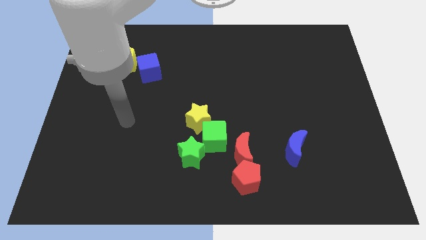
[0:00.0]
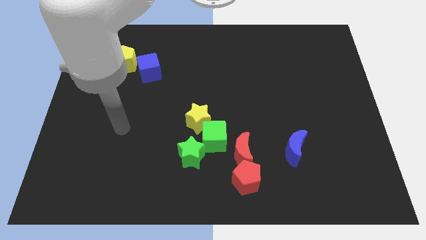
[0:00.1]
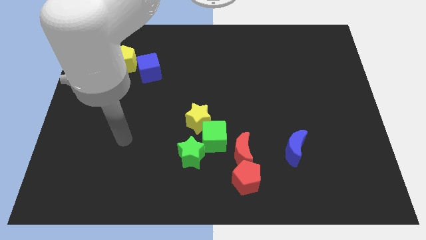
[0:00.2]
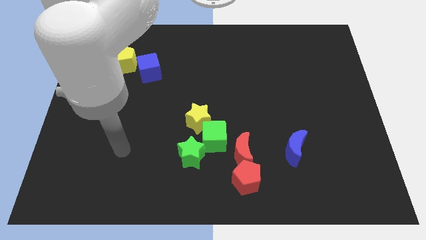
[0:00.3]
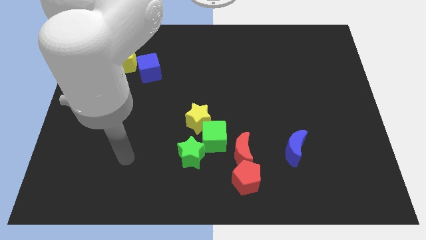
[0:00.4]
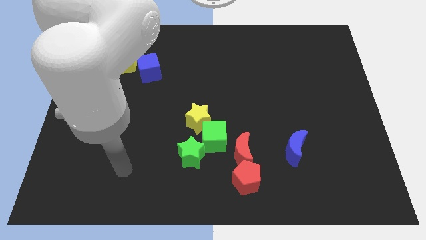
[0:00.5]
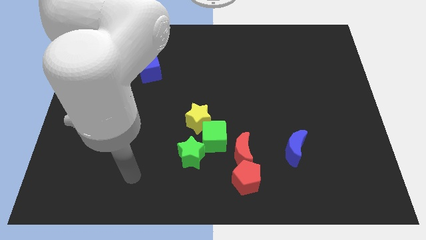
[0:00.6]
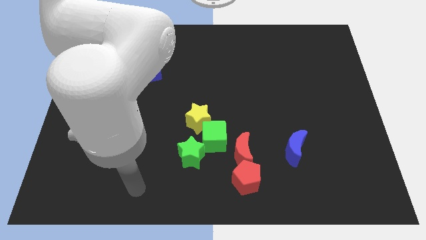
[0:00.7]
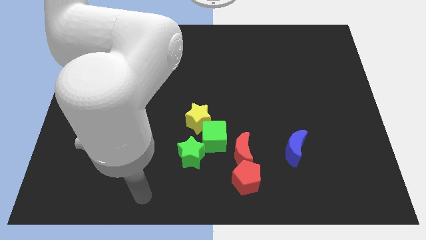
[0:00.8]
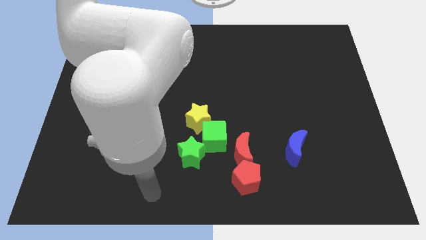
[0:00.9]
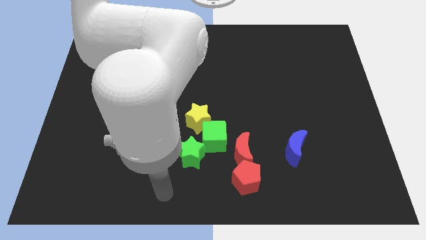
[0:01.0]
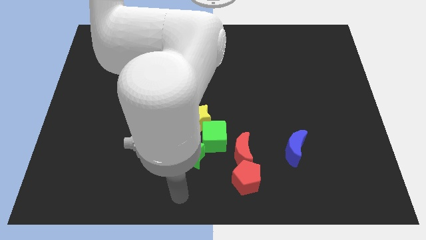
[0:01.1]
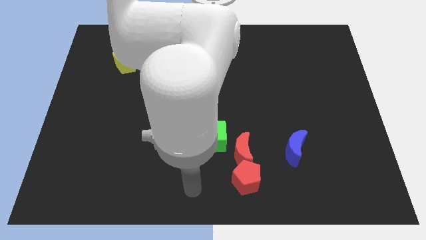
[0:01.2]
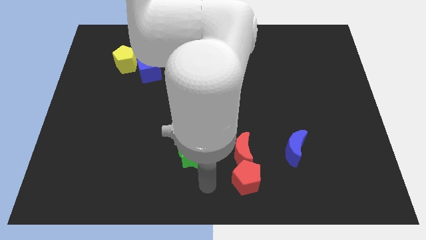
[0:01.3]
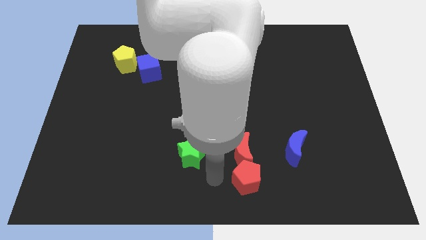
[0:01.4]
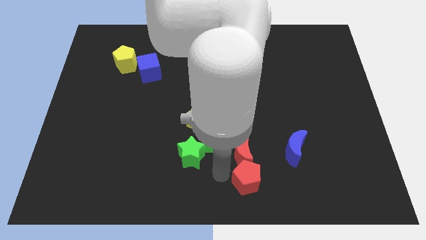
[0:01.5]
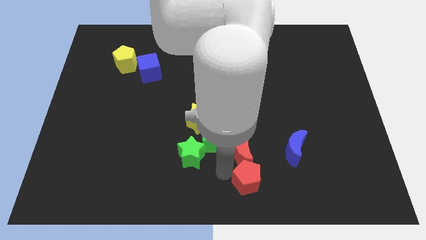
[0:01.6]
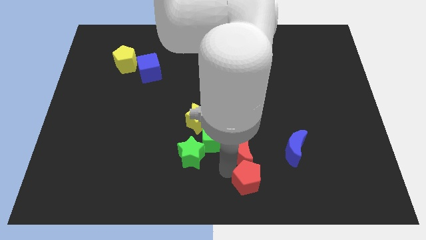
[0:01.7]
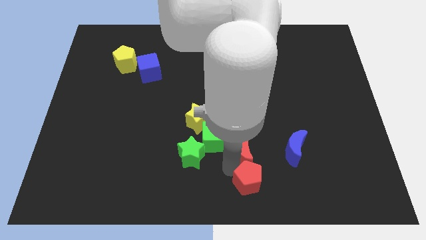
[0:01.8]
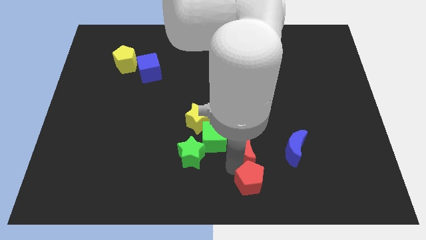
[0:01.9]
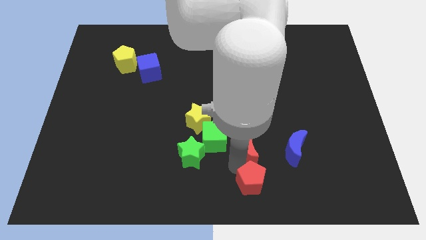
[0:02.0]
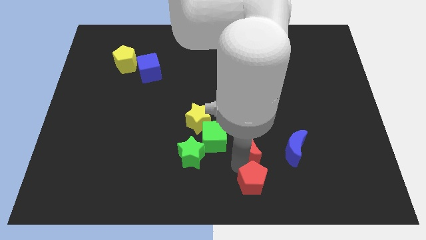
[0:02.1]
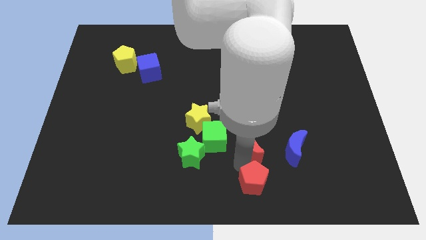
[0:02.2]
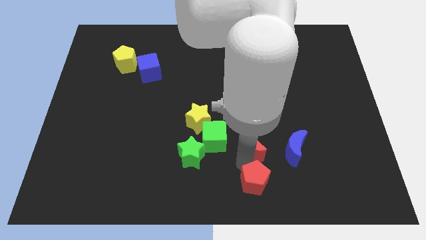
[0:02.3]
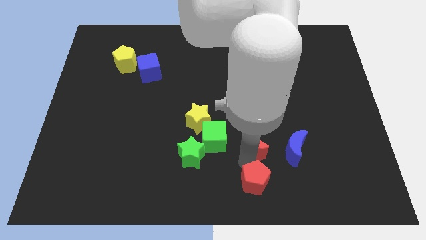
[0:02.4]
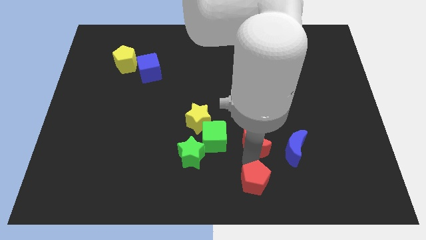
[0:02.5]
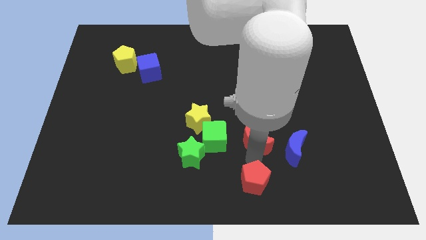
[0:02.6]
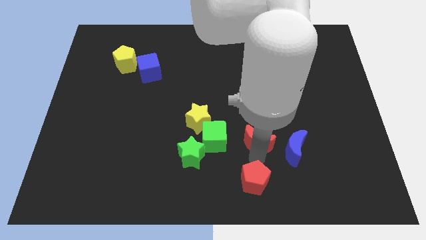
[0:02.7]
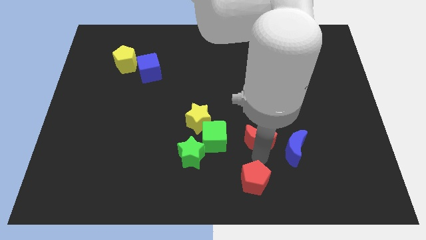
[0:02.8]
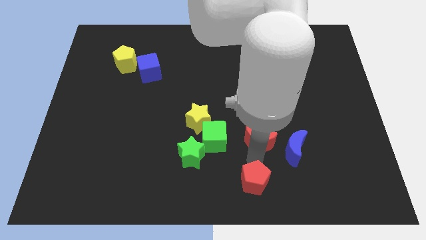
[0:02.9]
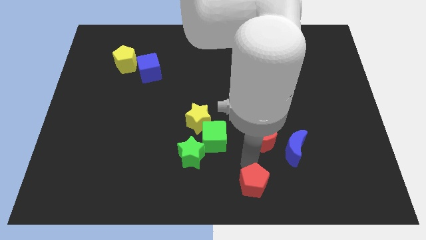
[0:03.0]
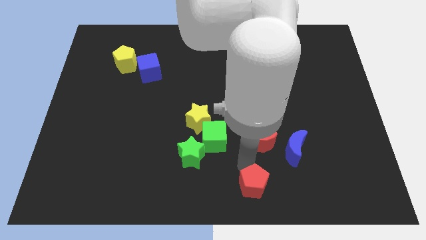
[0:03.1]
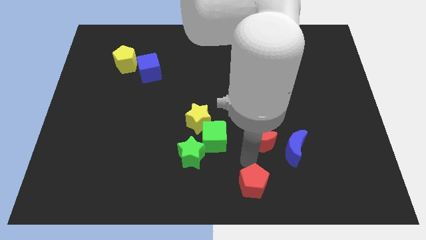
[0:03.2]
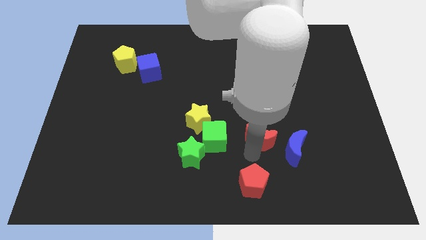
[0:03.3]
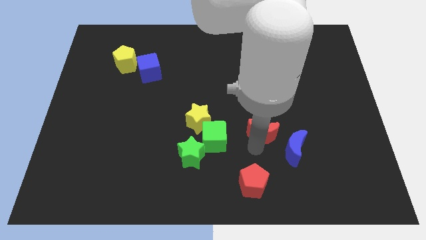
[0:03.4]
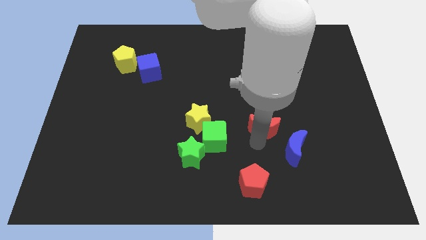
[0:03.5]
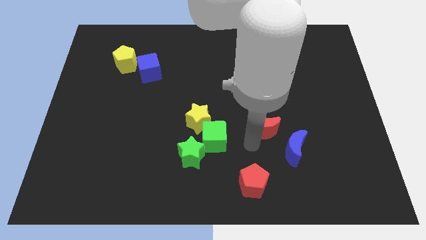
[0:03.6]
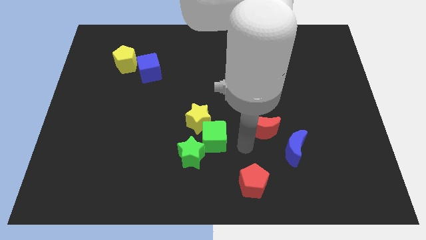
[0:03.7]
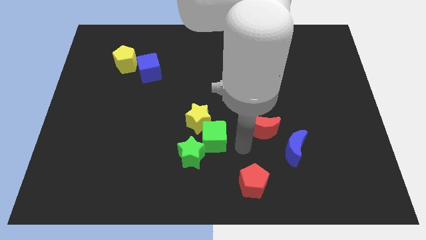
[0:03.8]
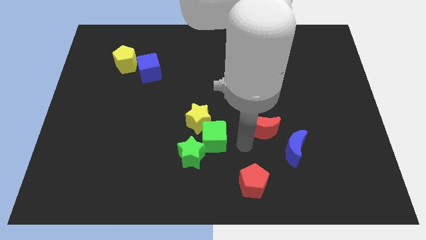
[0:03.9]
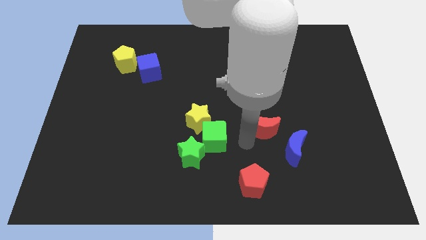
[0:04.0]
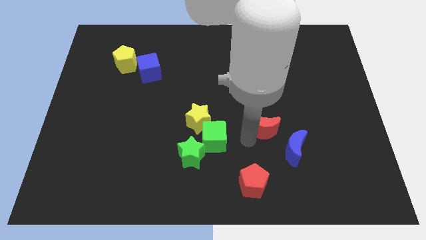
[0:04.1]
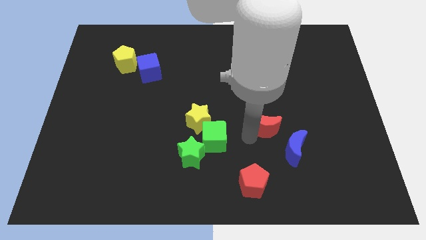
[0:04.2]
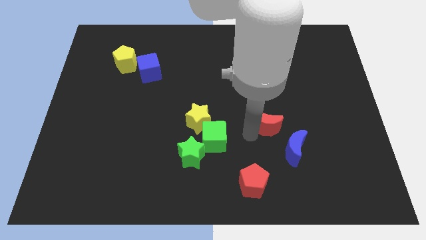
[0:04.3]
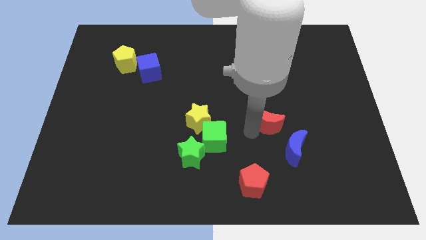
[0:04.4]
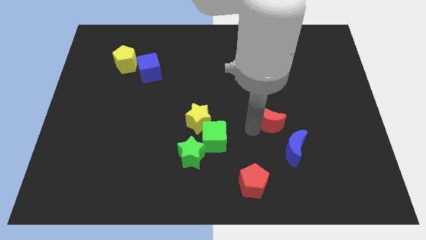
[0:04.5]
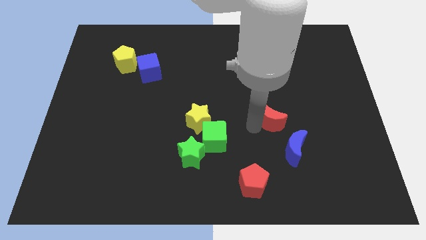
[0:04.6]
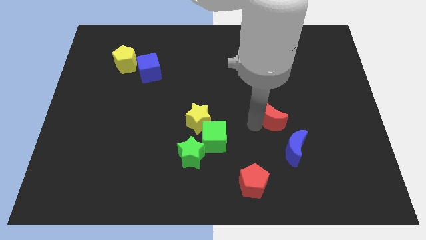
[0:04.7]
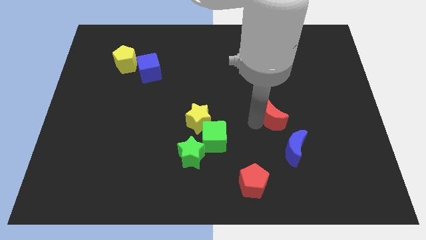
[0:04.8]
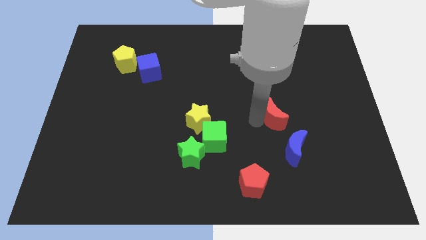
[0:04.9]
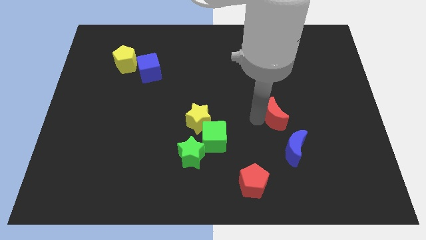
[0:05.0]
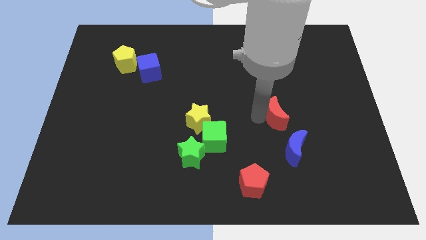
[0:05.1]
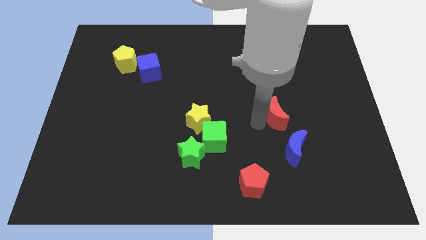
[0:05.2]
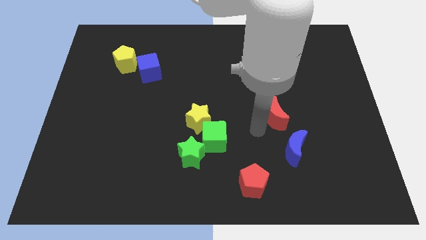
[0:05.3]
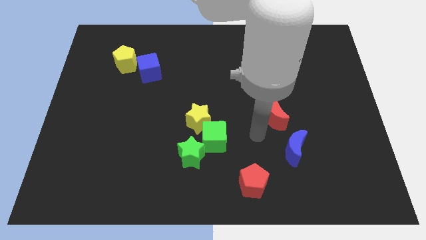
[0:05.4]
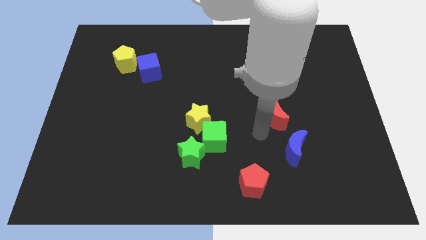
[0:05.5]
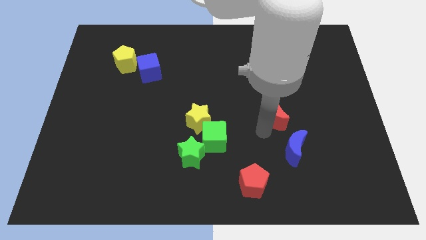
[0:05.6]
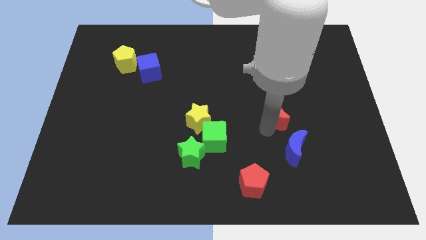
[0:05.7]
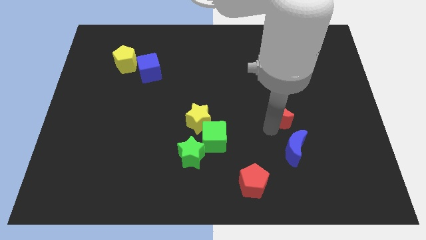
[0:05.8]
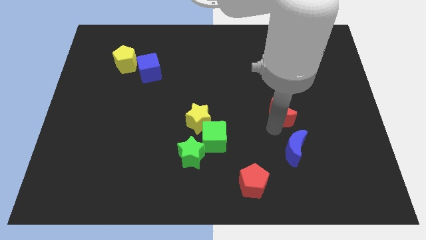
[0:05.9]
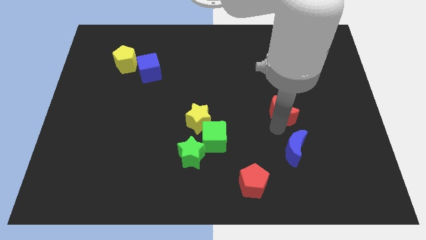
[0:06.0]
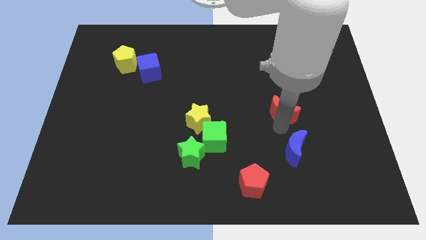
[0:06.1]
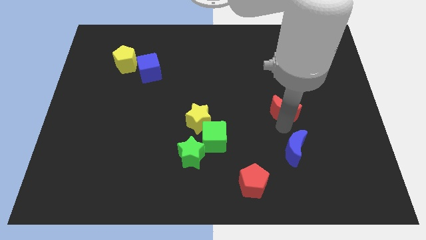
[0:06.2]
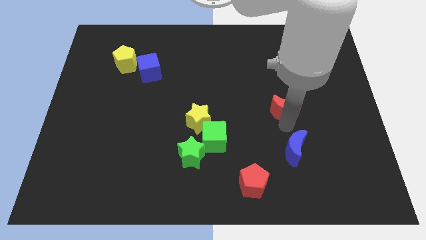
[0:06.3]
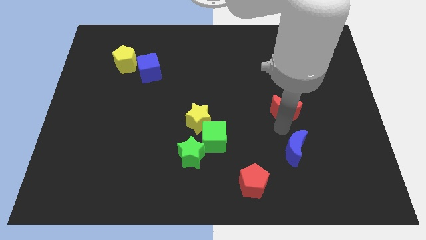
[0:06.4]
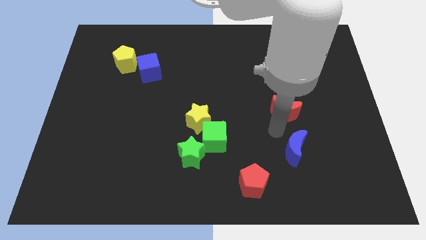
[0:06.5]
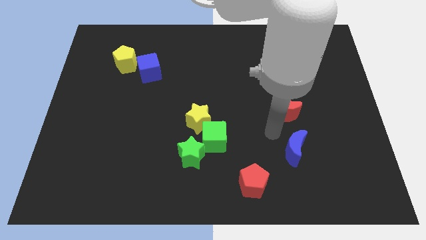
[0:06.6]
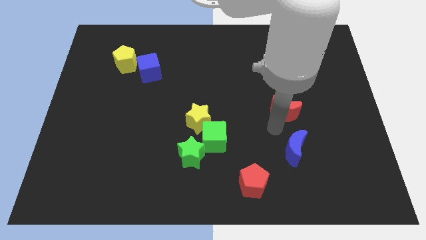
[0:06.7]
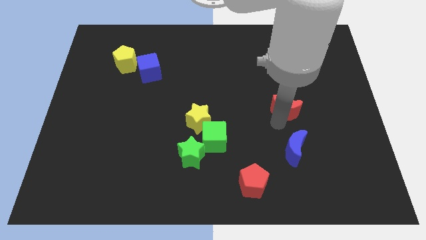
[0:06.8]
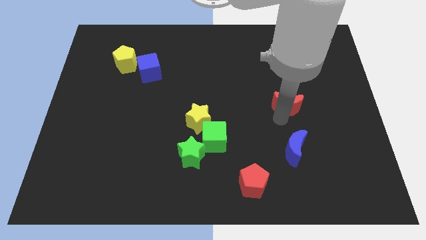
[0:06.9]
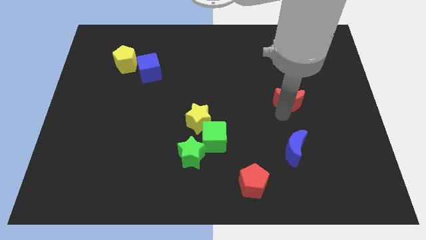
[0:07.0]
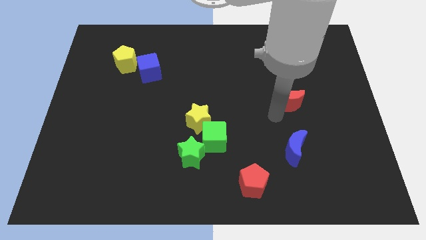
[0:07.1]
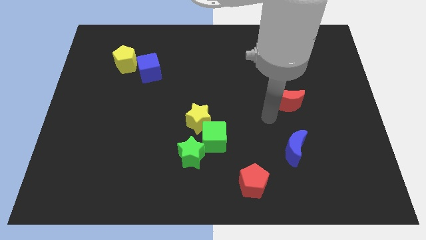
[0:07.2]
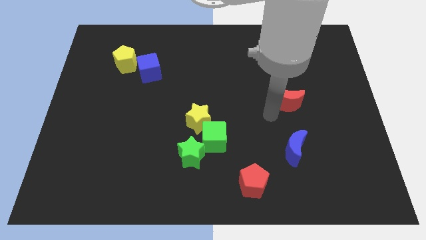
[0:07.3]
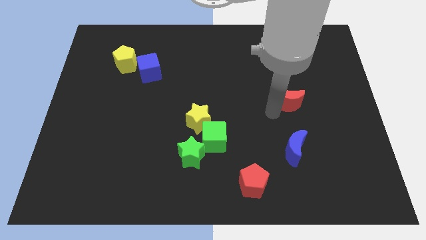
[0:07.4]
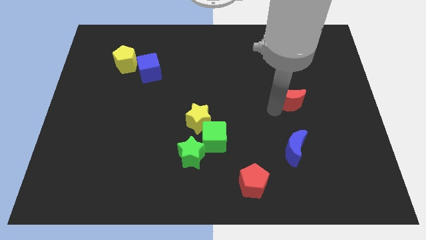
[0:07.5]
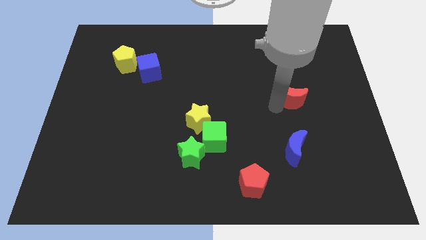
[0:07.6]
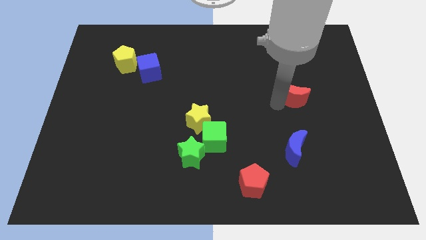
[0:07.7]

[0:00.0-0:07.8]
move the red moon up and right diagonally

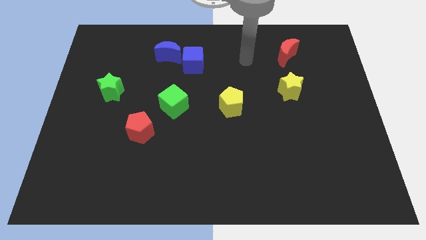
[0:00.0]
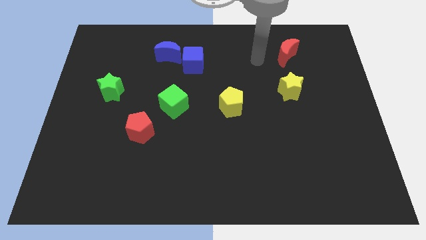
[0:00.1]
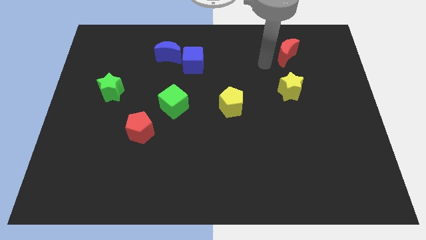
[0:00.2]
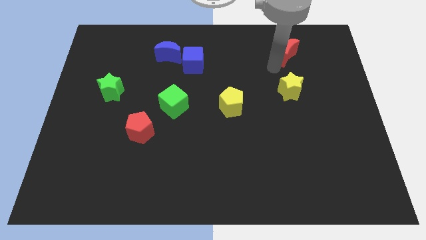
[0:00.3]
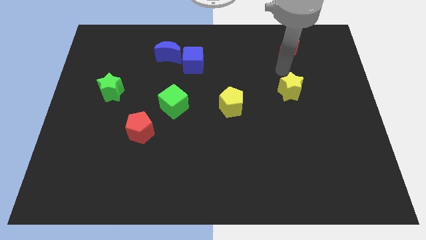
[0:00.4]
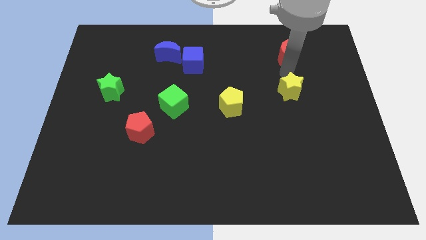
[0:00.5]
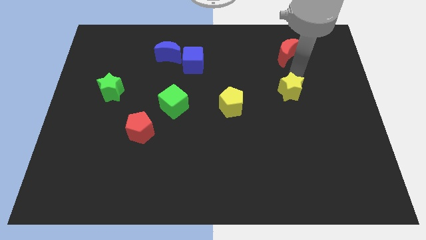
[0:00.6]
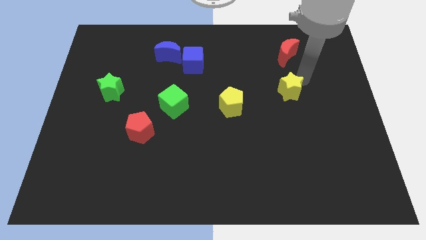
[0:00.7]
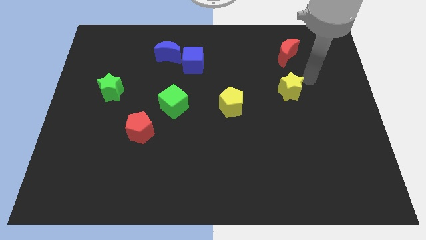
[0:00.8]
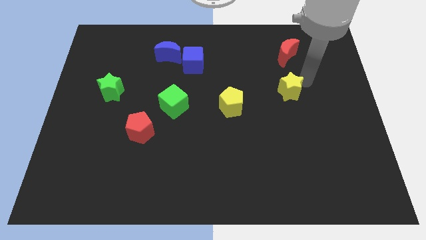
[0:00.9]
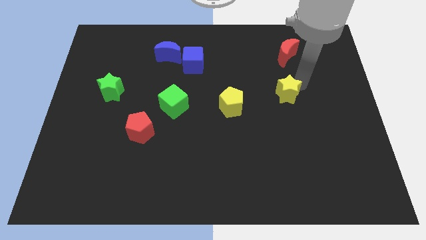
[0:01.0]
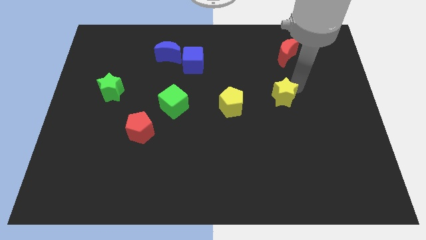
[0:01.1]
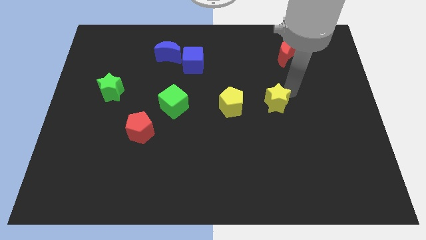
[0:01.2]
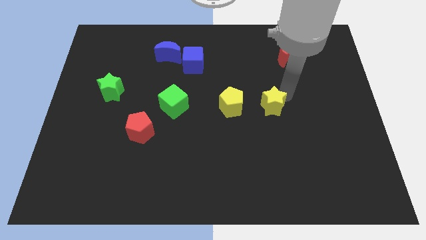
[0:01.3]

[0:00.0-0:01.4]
slide the yellow star diagonally down and to the left a little bit
